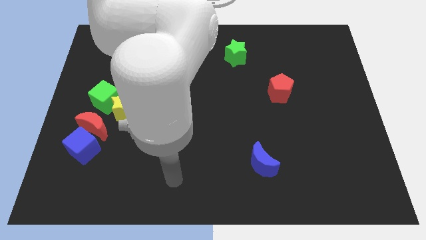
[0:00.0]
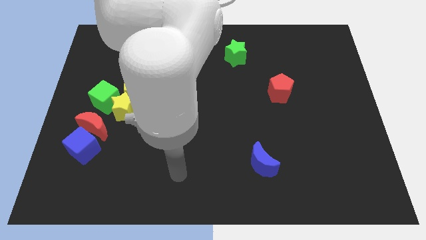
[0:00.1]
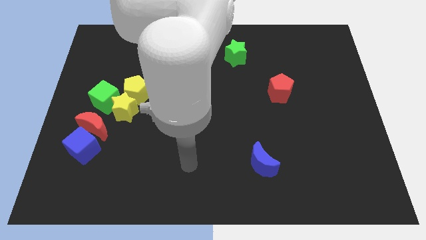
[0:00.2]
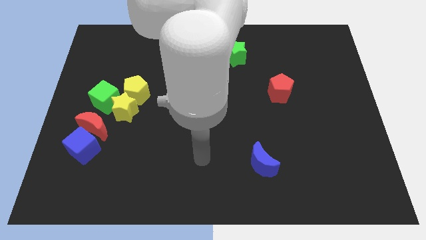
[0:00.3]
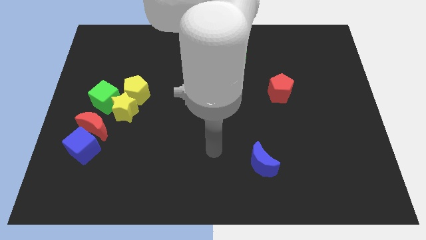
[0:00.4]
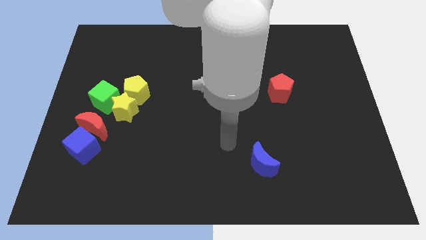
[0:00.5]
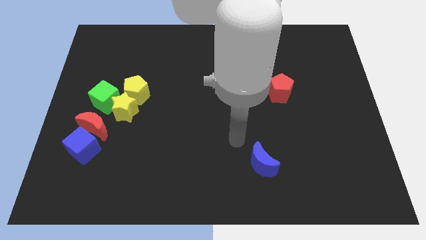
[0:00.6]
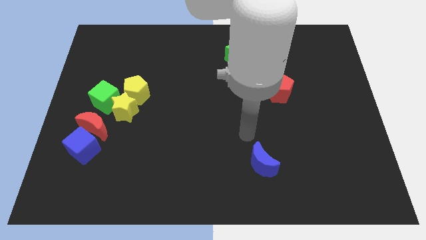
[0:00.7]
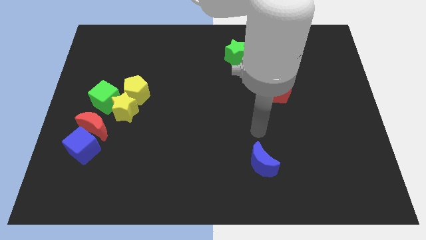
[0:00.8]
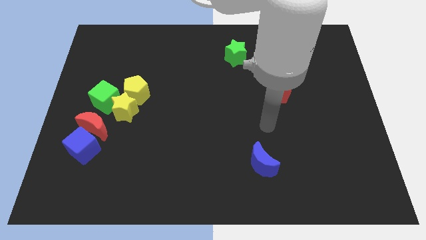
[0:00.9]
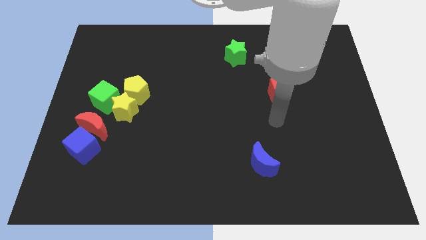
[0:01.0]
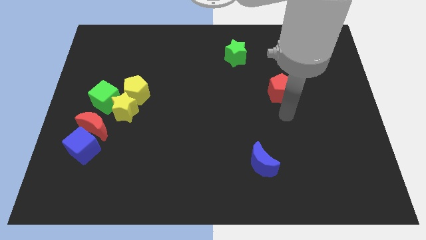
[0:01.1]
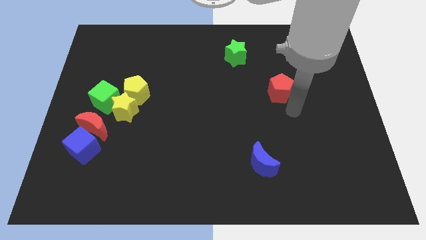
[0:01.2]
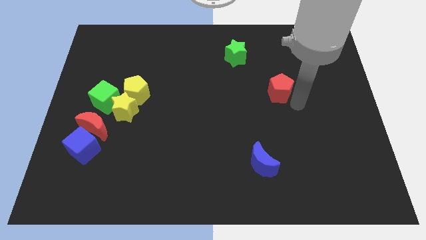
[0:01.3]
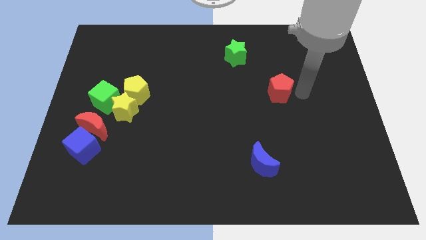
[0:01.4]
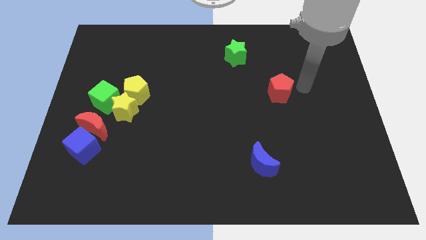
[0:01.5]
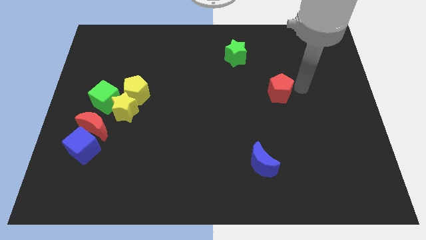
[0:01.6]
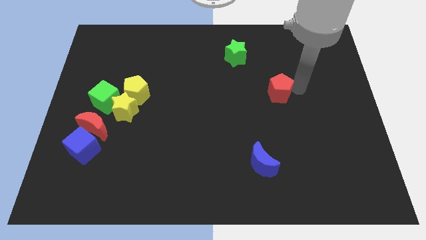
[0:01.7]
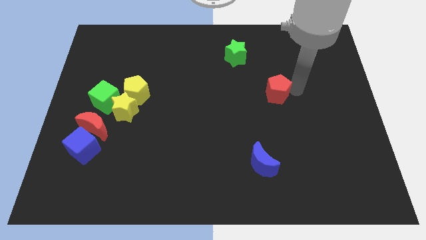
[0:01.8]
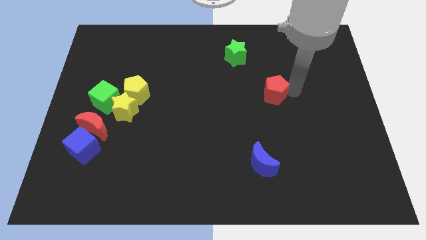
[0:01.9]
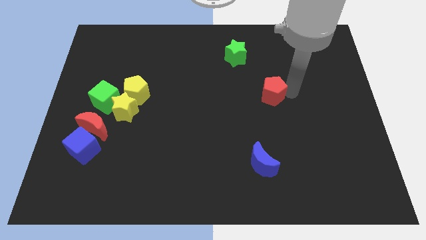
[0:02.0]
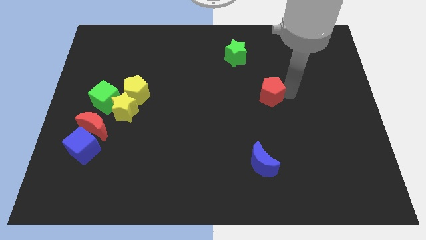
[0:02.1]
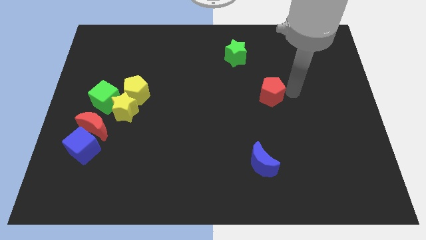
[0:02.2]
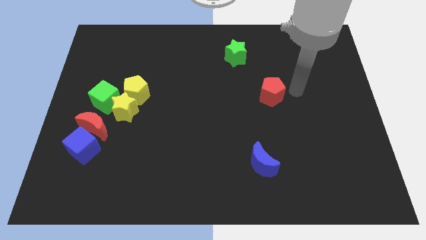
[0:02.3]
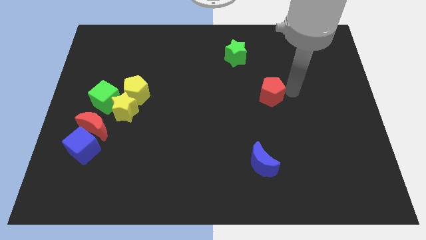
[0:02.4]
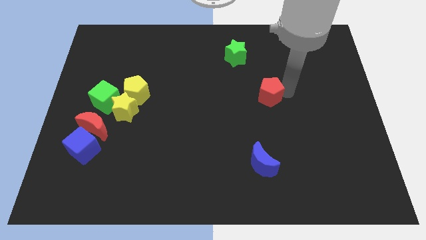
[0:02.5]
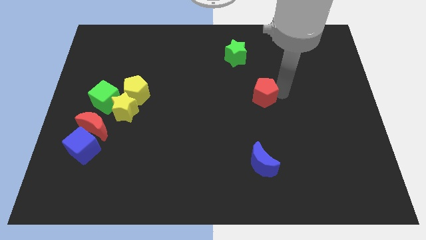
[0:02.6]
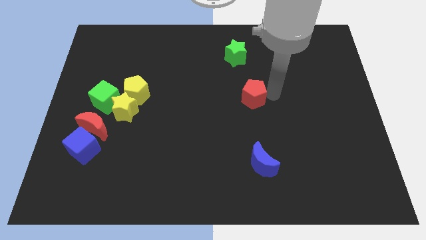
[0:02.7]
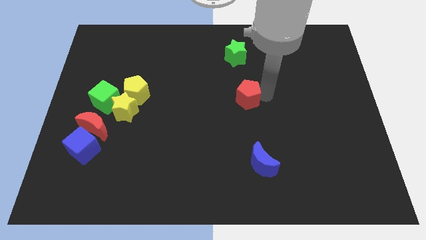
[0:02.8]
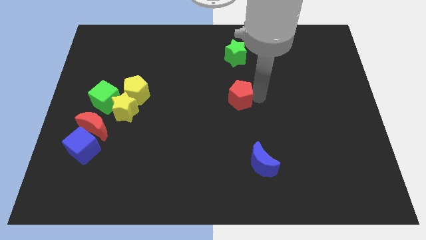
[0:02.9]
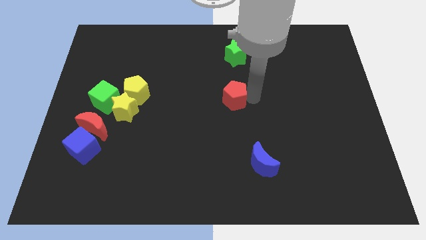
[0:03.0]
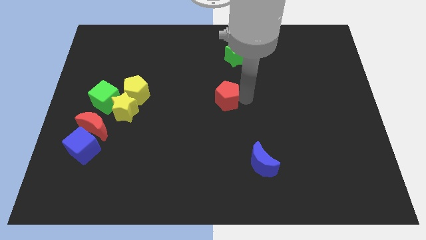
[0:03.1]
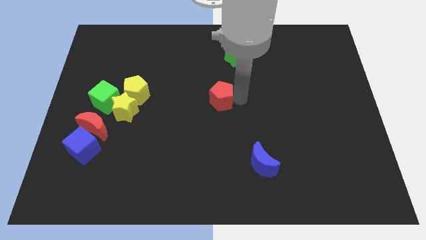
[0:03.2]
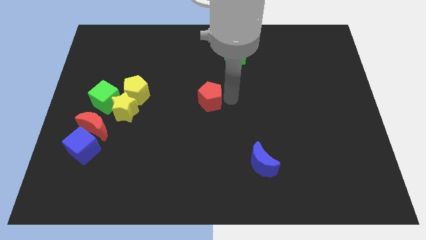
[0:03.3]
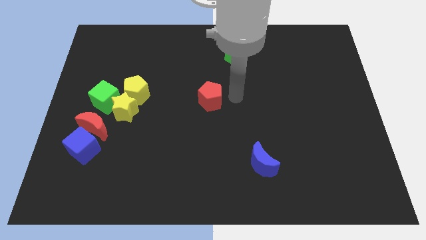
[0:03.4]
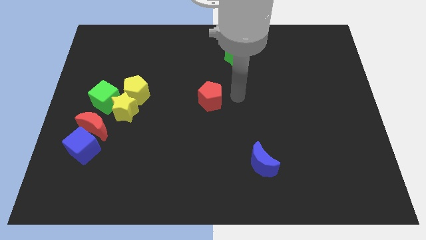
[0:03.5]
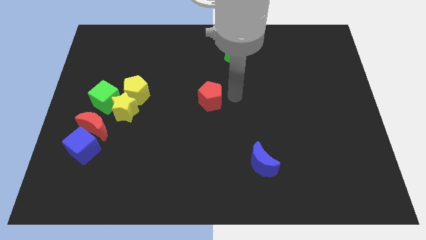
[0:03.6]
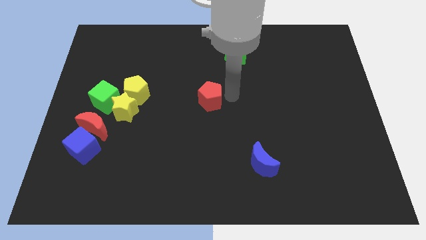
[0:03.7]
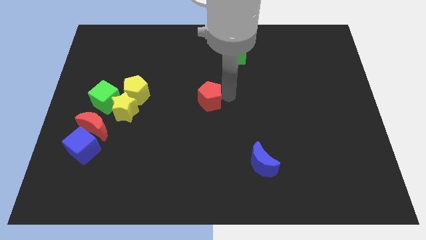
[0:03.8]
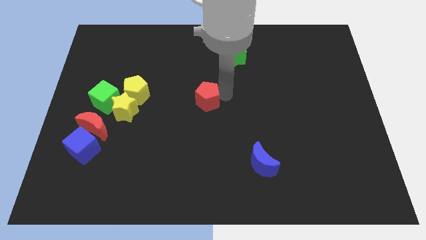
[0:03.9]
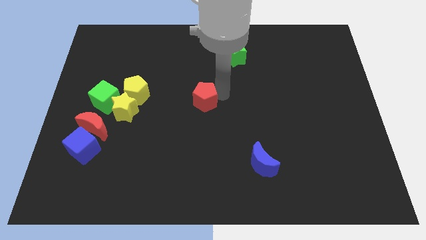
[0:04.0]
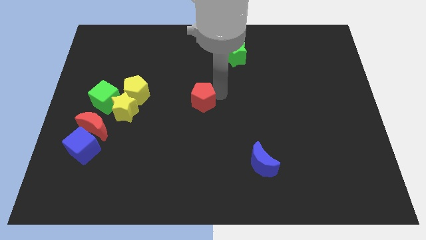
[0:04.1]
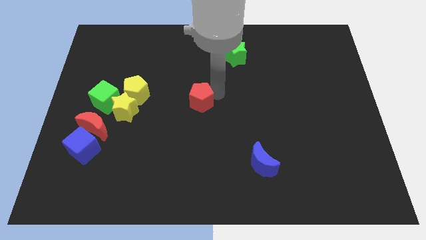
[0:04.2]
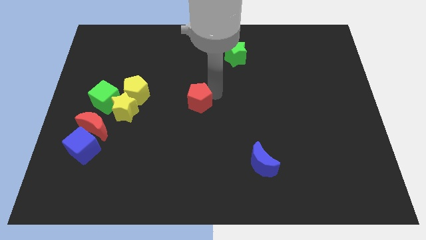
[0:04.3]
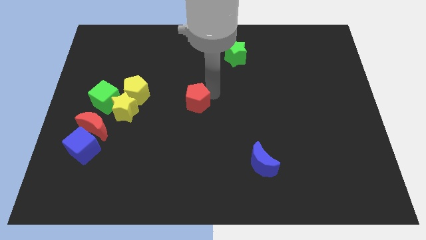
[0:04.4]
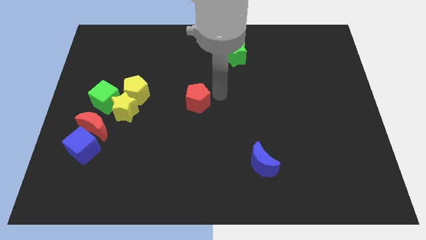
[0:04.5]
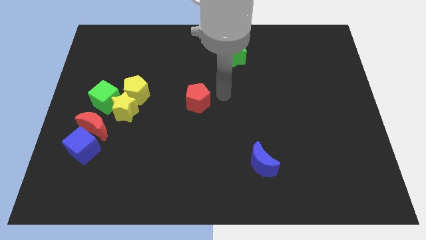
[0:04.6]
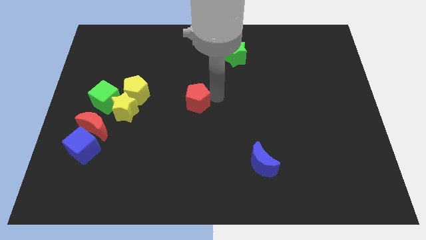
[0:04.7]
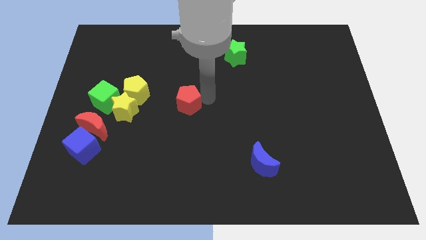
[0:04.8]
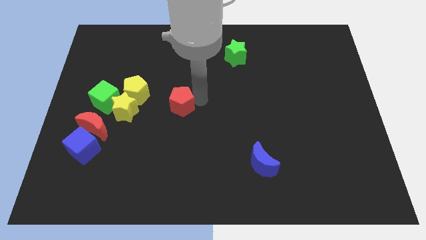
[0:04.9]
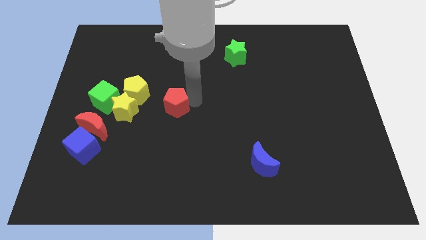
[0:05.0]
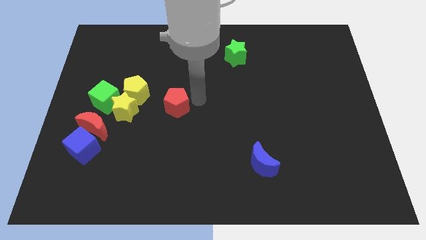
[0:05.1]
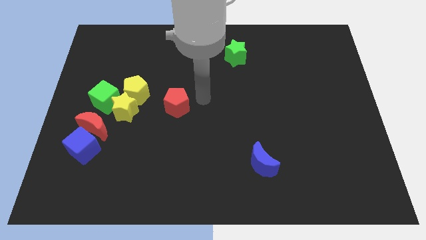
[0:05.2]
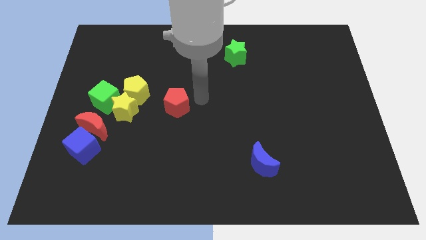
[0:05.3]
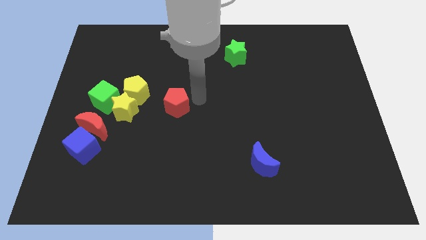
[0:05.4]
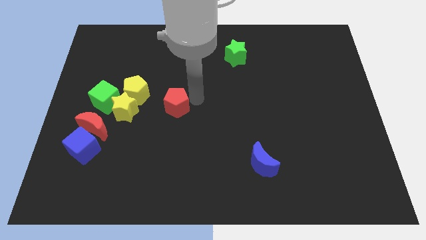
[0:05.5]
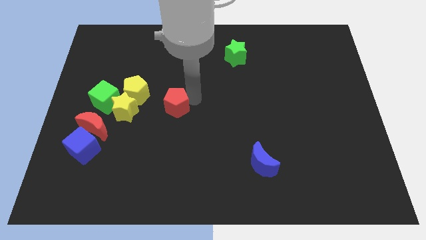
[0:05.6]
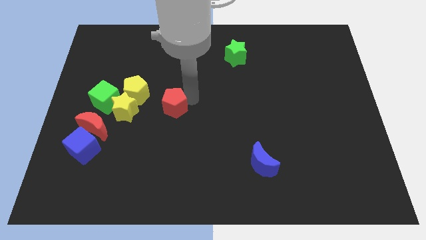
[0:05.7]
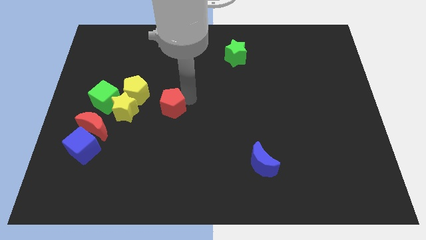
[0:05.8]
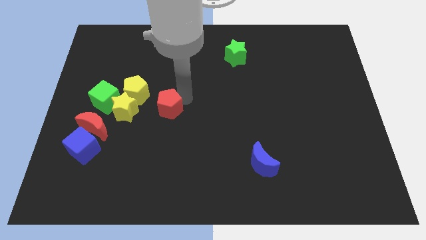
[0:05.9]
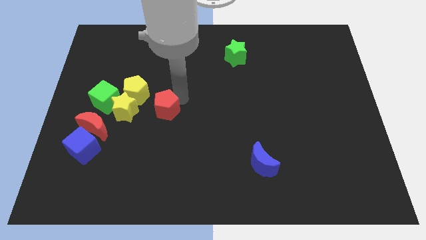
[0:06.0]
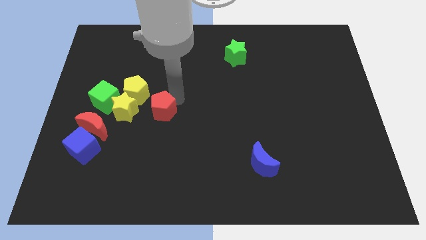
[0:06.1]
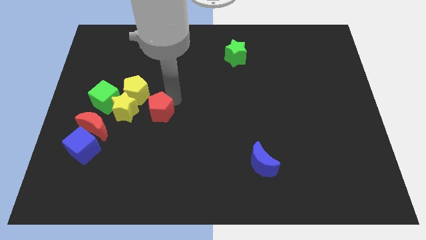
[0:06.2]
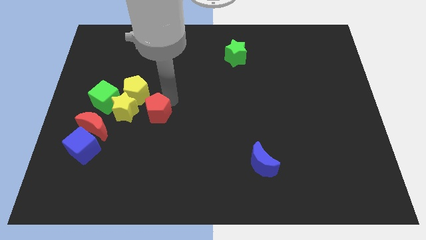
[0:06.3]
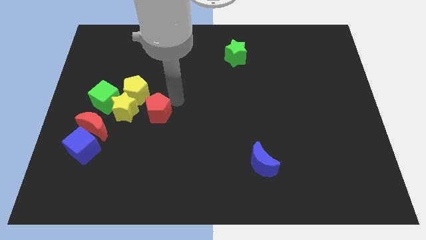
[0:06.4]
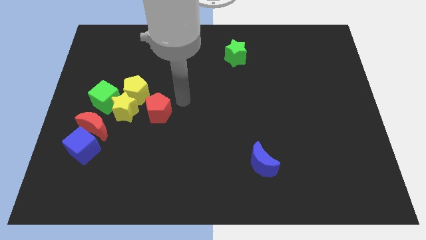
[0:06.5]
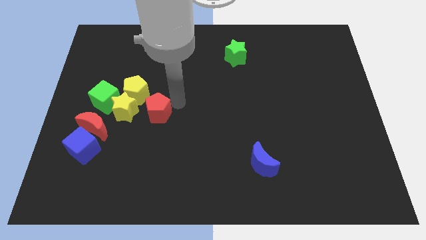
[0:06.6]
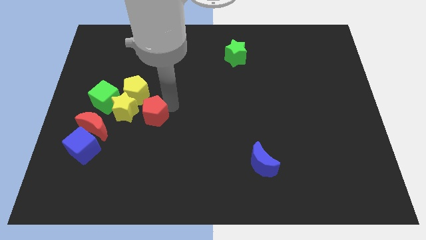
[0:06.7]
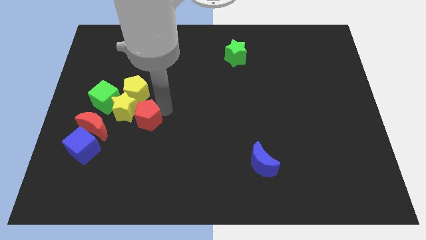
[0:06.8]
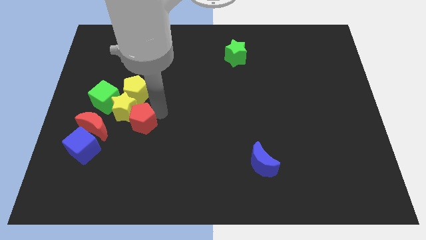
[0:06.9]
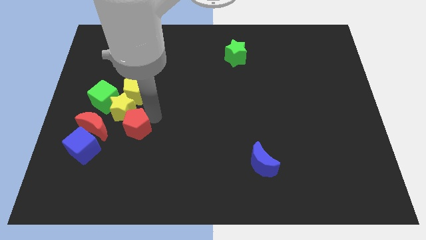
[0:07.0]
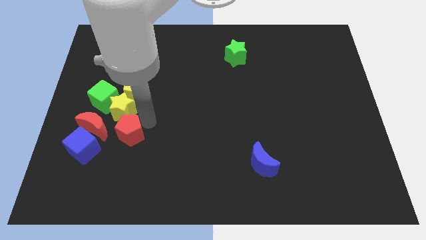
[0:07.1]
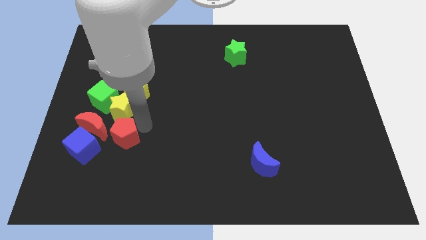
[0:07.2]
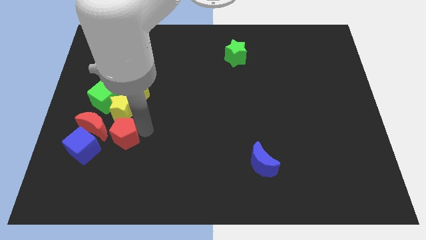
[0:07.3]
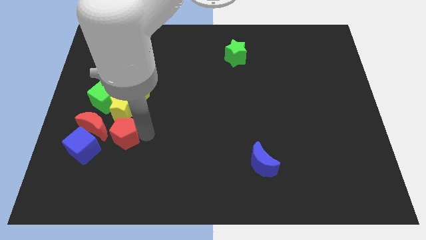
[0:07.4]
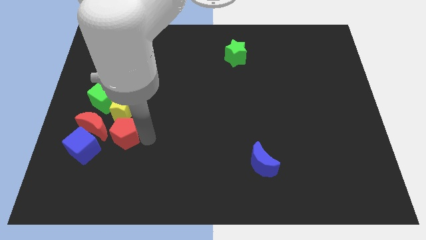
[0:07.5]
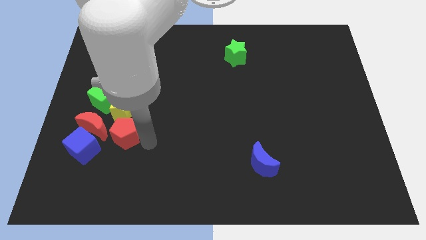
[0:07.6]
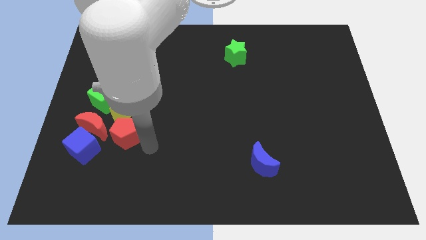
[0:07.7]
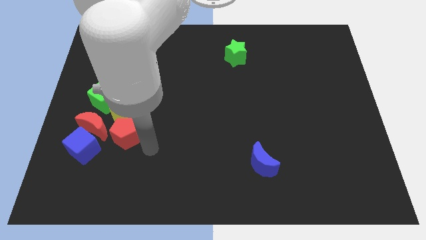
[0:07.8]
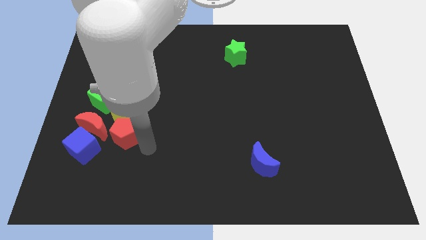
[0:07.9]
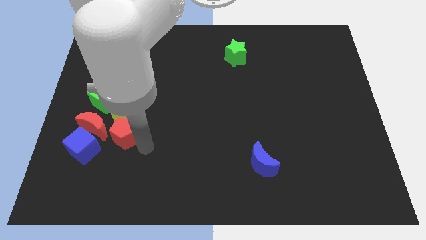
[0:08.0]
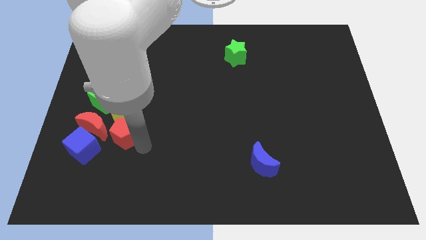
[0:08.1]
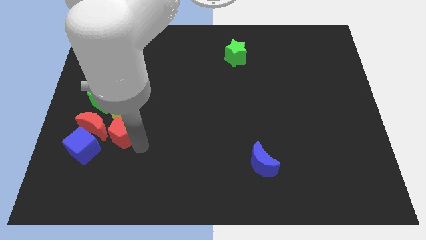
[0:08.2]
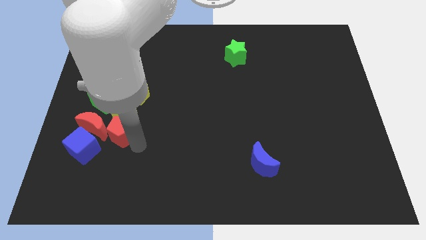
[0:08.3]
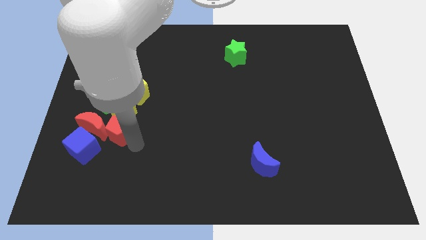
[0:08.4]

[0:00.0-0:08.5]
slide the red pentagon next to the red moon
